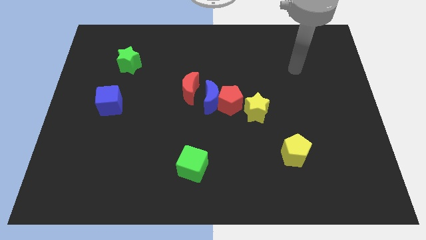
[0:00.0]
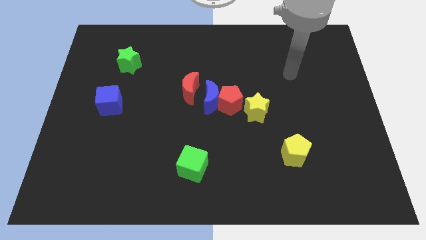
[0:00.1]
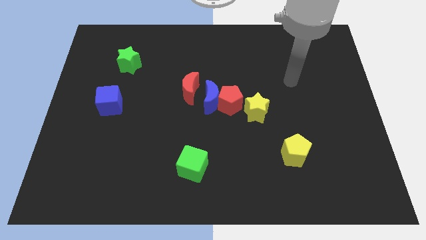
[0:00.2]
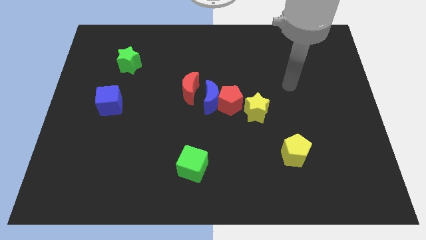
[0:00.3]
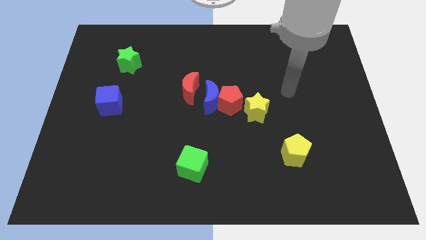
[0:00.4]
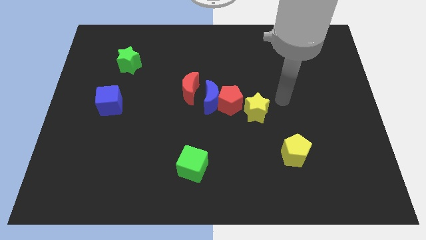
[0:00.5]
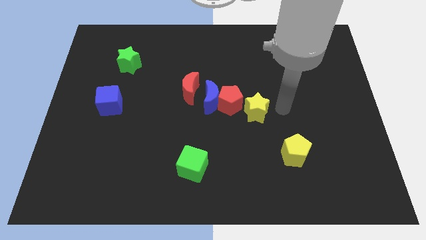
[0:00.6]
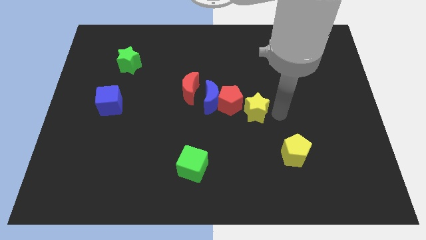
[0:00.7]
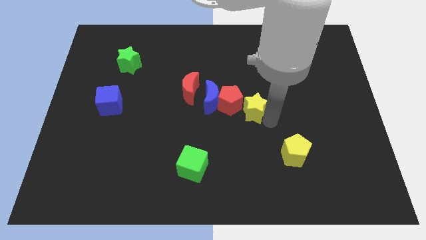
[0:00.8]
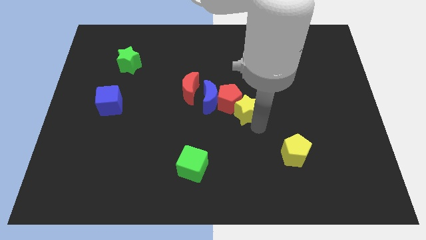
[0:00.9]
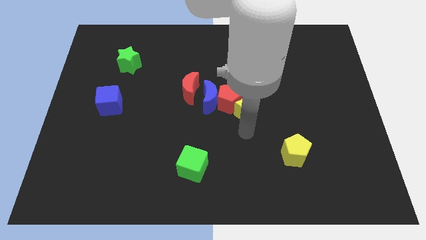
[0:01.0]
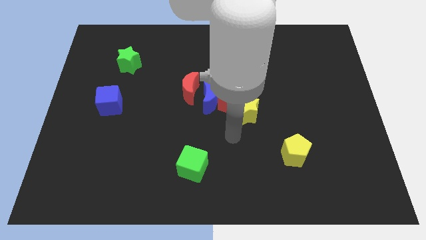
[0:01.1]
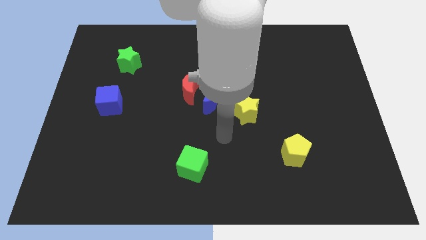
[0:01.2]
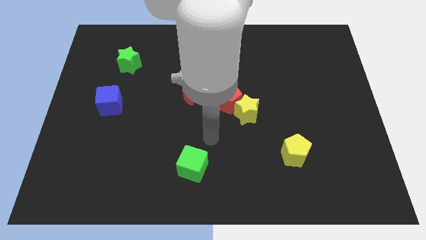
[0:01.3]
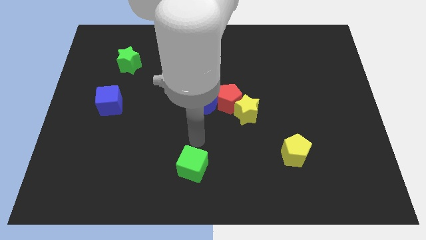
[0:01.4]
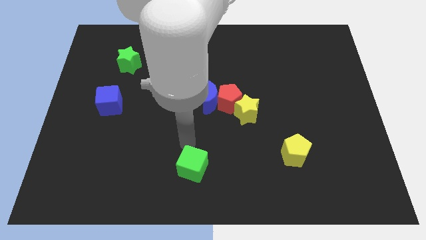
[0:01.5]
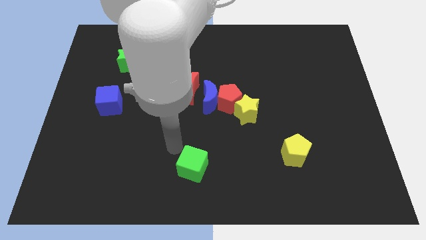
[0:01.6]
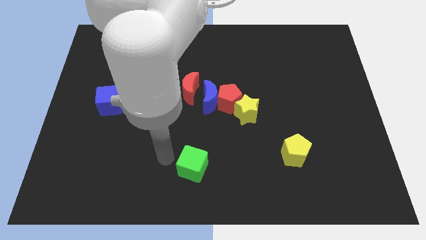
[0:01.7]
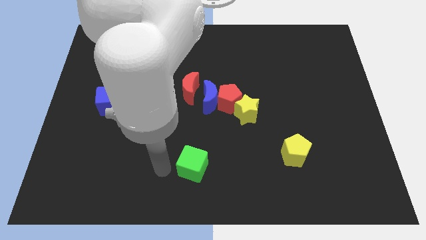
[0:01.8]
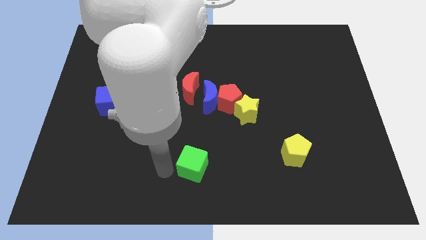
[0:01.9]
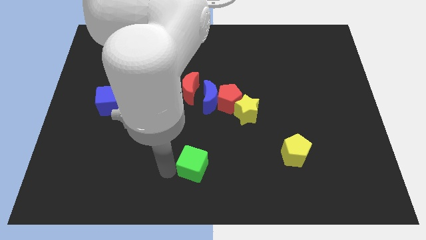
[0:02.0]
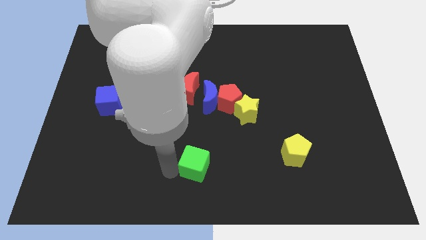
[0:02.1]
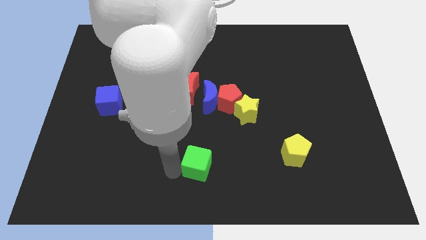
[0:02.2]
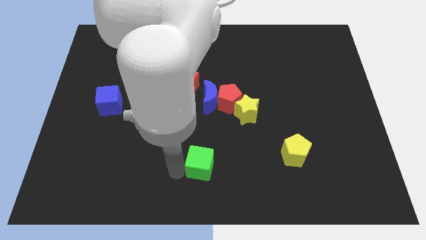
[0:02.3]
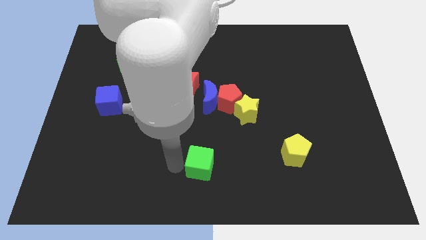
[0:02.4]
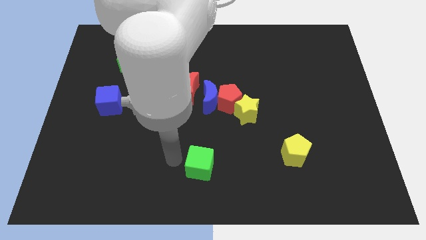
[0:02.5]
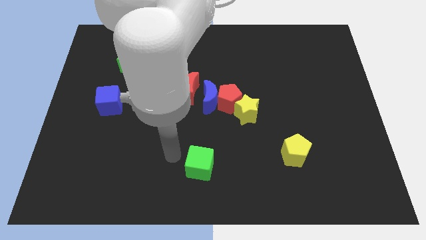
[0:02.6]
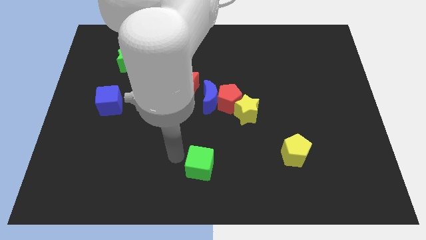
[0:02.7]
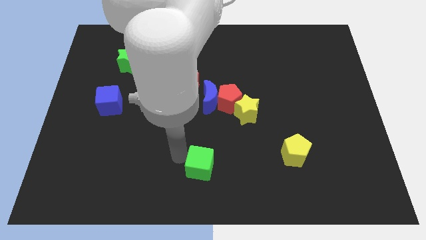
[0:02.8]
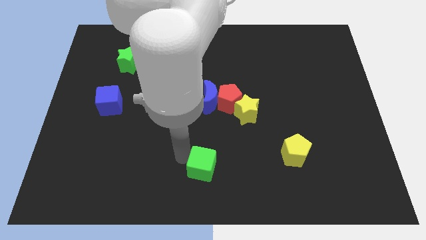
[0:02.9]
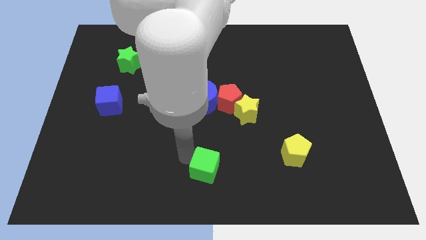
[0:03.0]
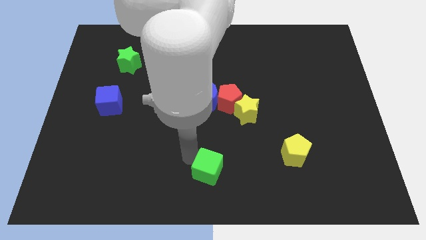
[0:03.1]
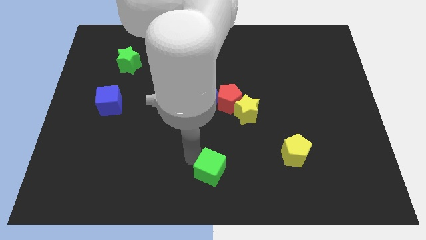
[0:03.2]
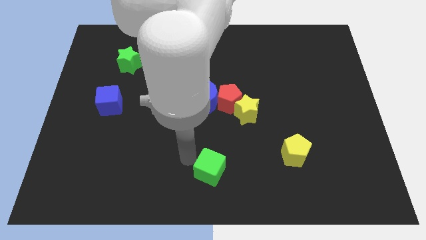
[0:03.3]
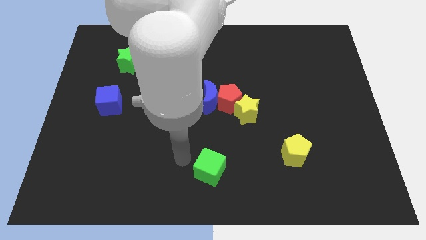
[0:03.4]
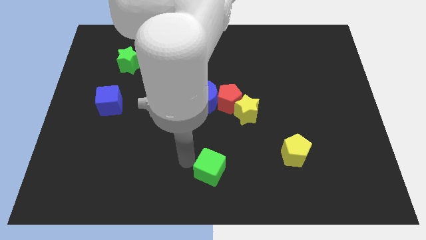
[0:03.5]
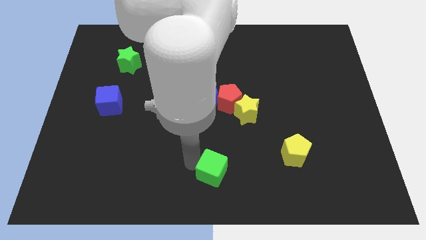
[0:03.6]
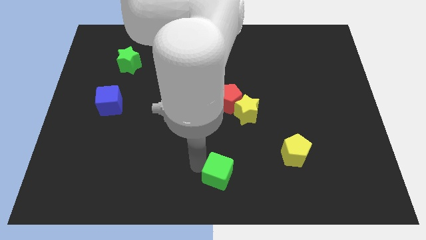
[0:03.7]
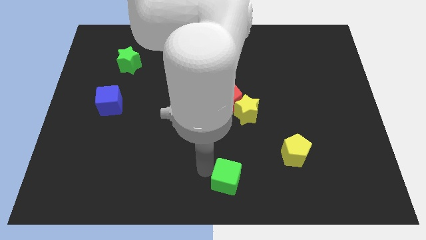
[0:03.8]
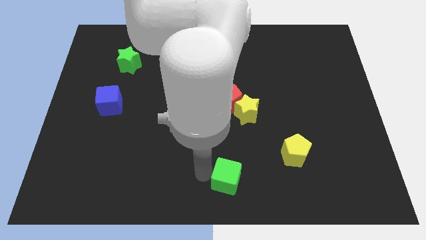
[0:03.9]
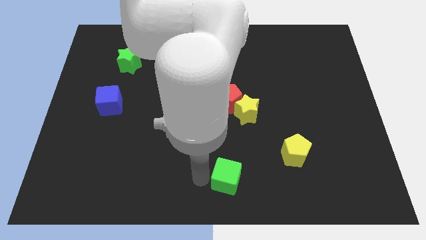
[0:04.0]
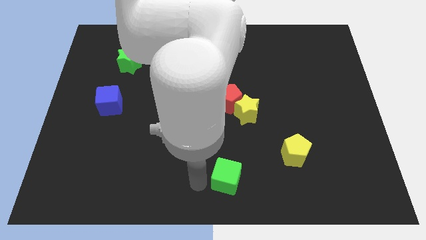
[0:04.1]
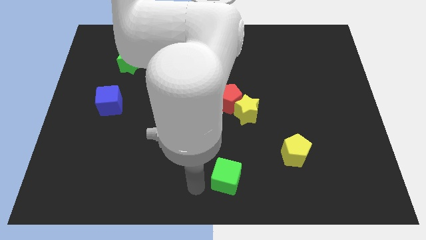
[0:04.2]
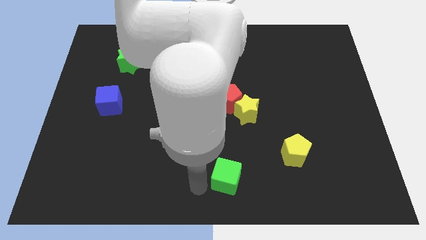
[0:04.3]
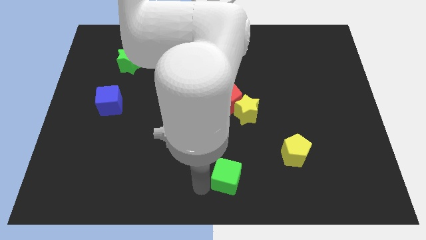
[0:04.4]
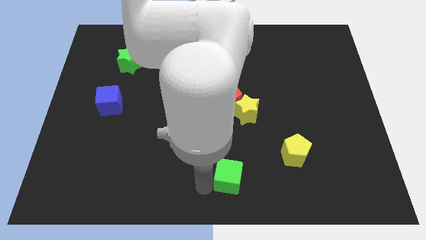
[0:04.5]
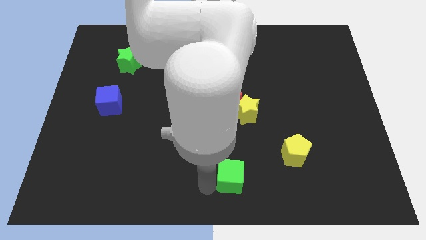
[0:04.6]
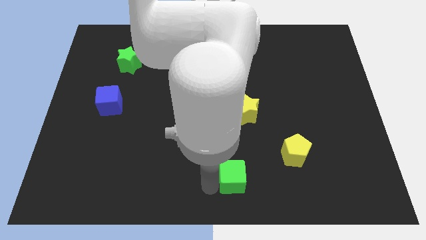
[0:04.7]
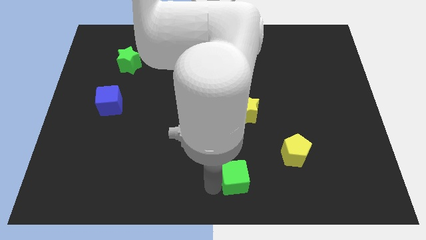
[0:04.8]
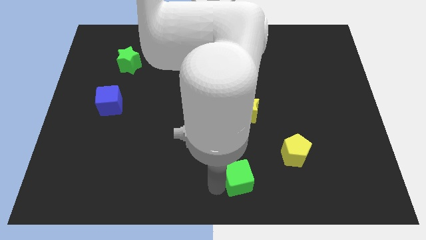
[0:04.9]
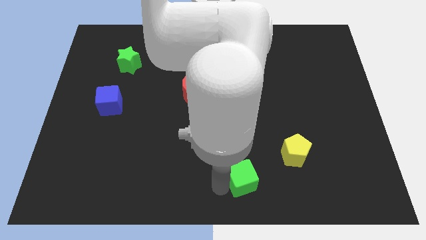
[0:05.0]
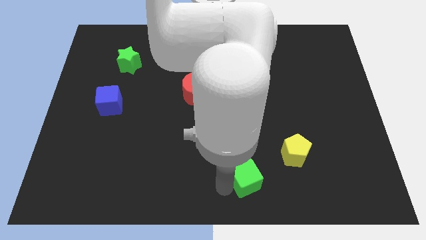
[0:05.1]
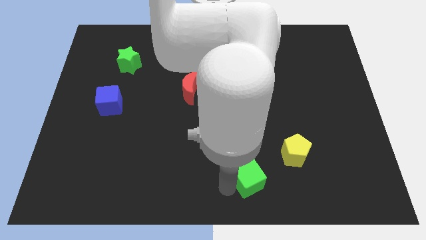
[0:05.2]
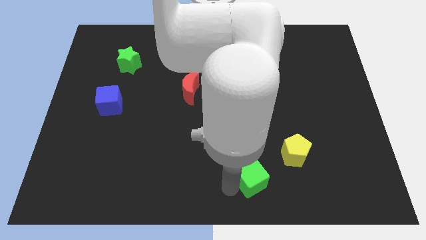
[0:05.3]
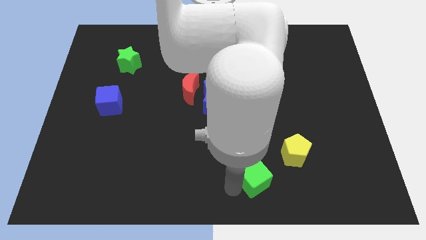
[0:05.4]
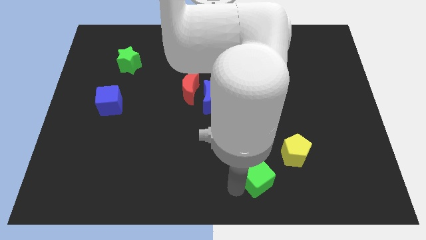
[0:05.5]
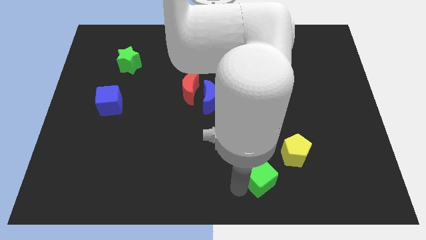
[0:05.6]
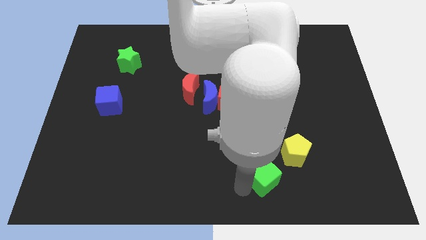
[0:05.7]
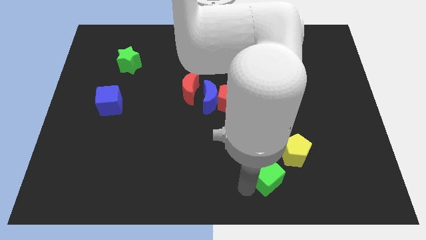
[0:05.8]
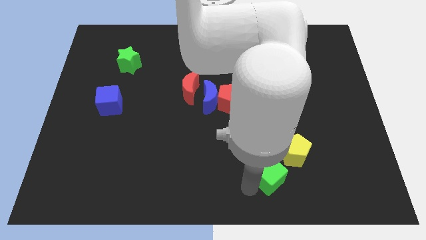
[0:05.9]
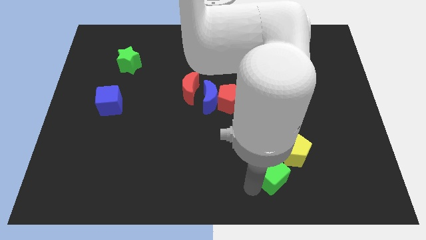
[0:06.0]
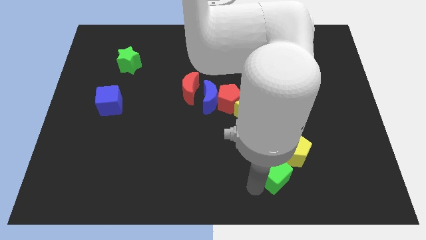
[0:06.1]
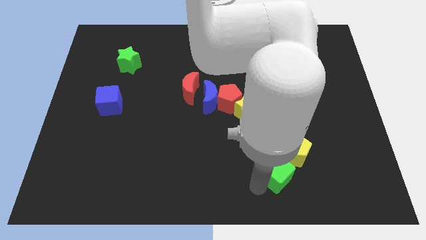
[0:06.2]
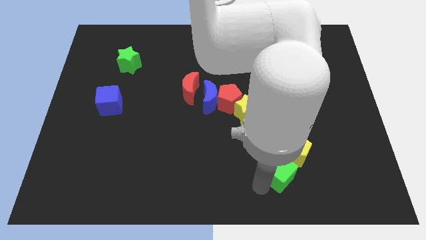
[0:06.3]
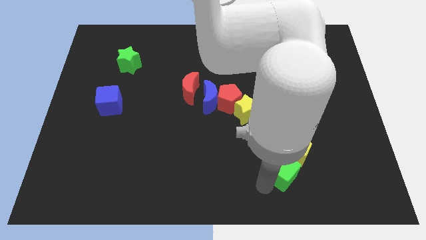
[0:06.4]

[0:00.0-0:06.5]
push the green cube next to the yellow pentagon

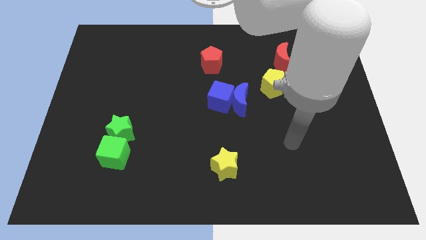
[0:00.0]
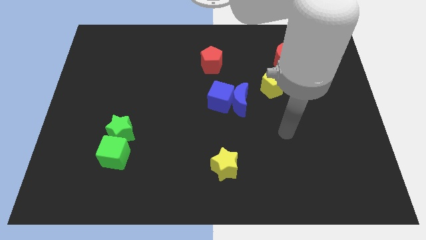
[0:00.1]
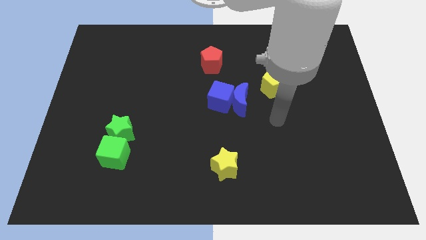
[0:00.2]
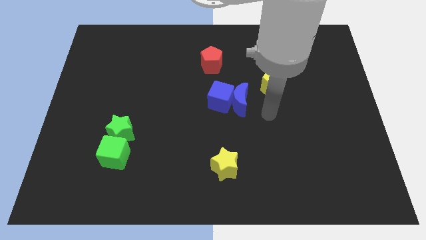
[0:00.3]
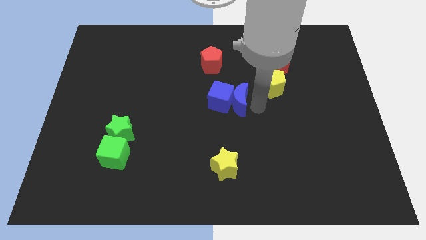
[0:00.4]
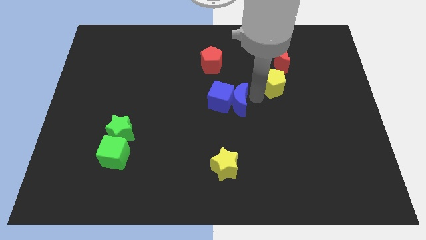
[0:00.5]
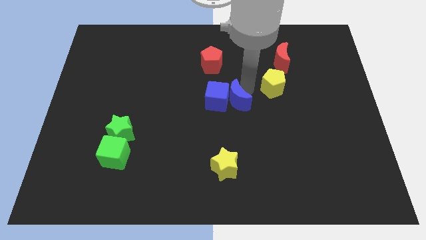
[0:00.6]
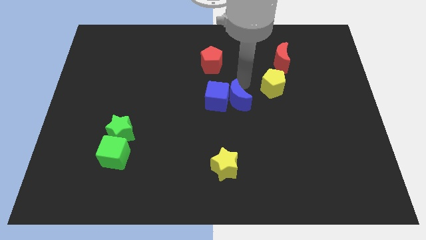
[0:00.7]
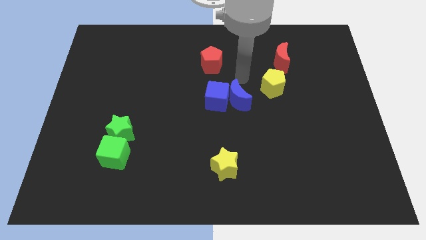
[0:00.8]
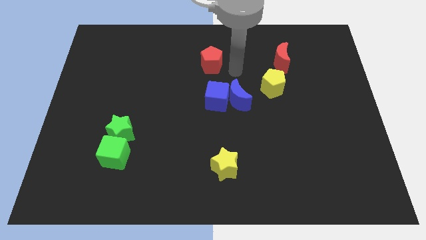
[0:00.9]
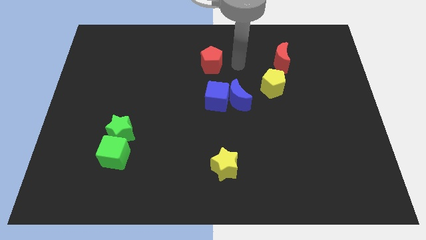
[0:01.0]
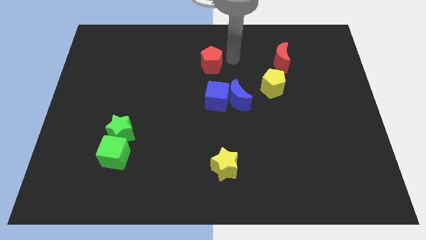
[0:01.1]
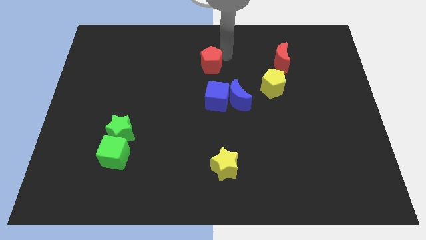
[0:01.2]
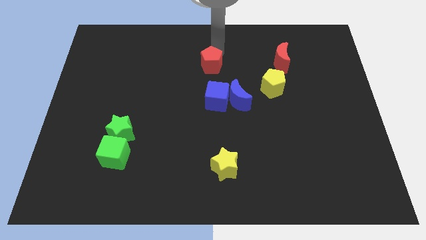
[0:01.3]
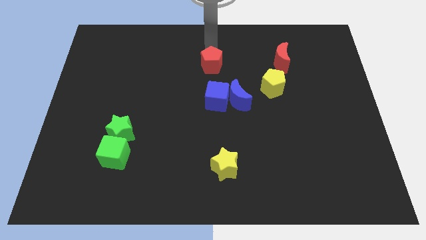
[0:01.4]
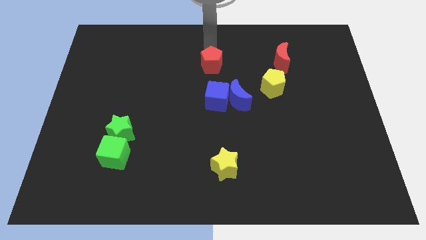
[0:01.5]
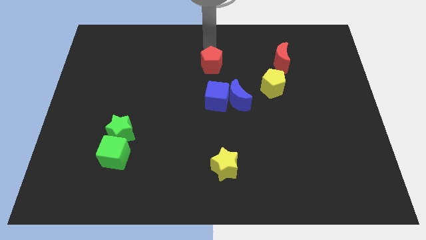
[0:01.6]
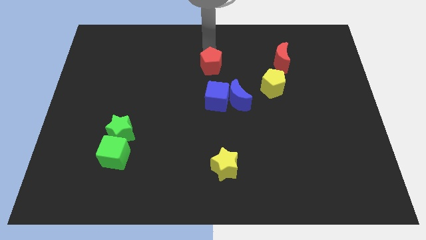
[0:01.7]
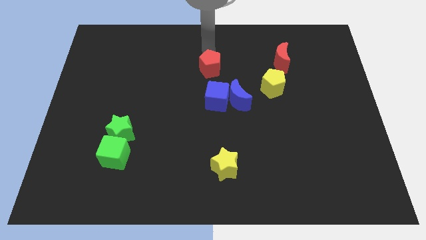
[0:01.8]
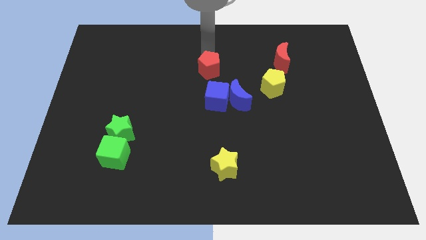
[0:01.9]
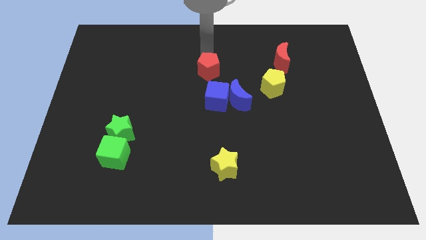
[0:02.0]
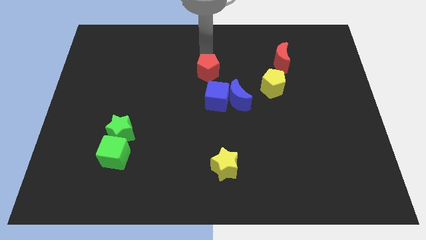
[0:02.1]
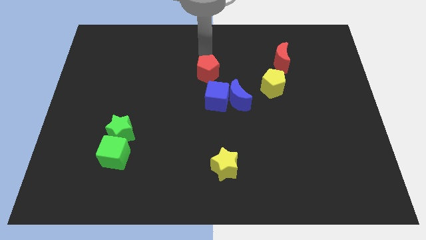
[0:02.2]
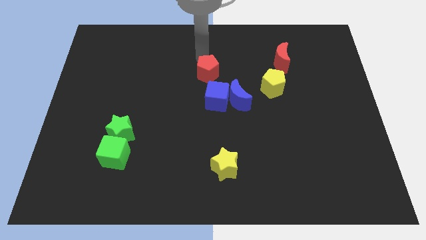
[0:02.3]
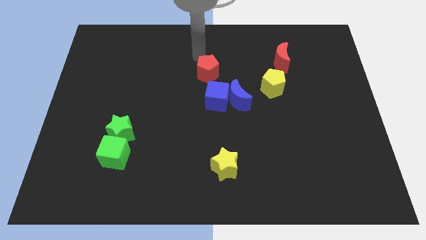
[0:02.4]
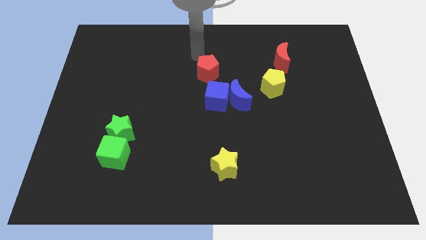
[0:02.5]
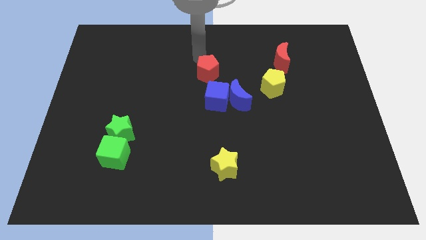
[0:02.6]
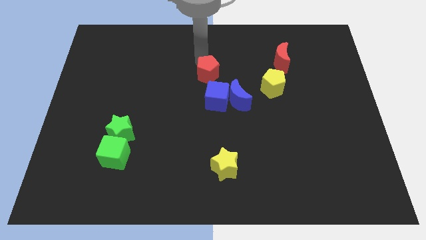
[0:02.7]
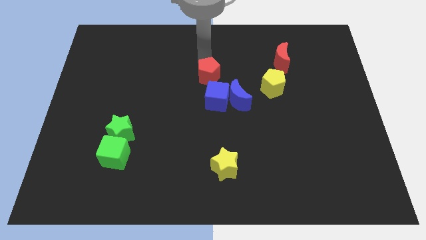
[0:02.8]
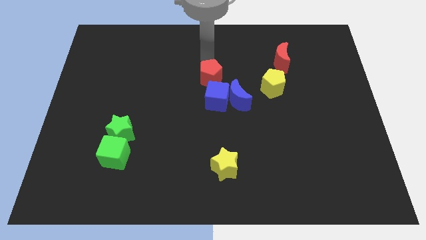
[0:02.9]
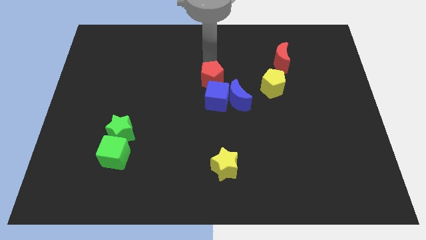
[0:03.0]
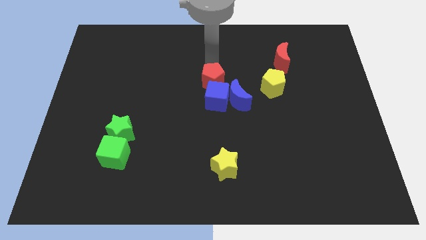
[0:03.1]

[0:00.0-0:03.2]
move the red pentagon to the blue cube
